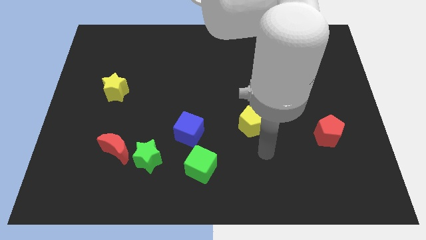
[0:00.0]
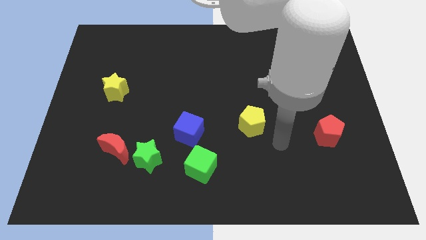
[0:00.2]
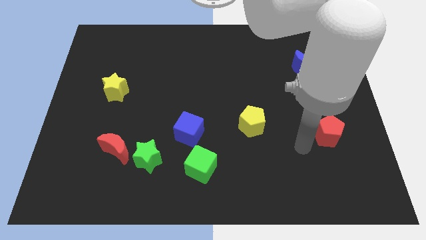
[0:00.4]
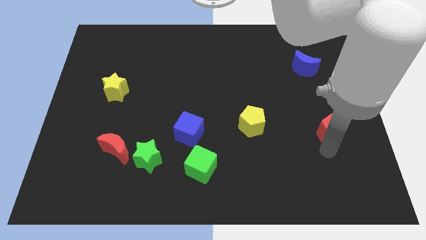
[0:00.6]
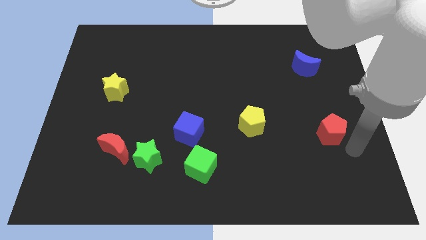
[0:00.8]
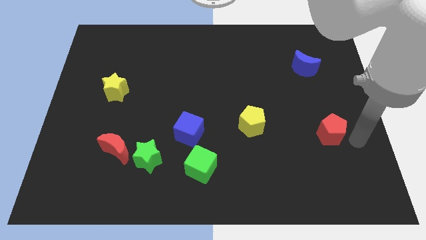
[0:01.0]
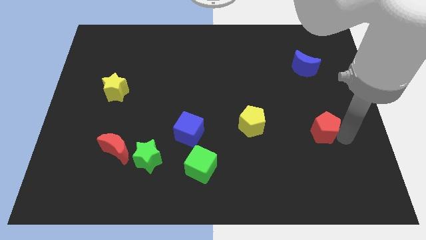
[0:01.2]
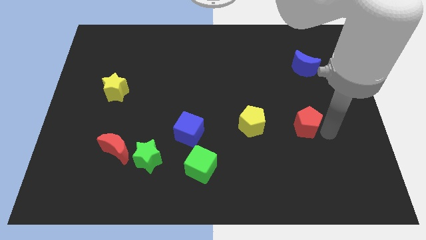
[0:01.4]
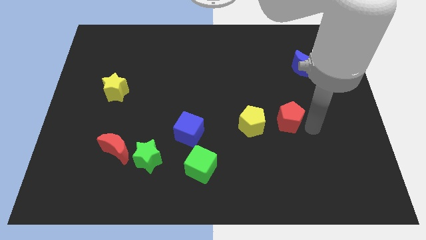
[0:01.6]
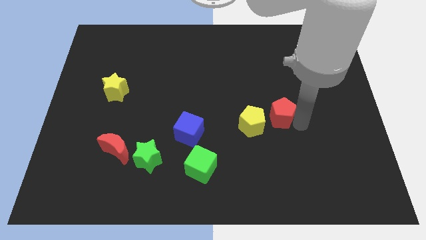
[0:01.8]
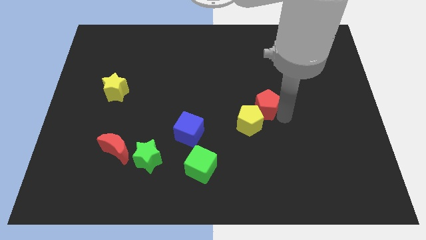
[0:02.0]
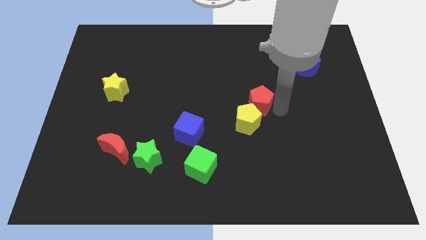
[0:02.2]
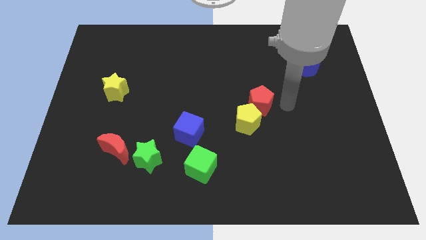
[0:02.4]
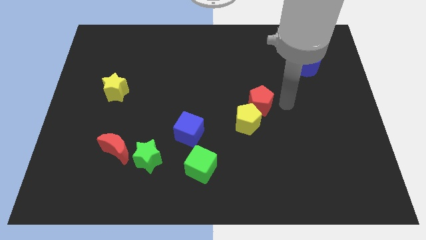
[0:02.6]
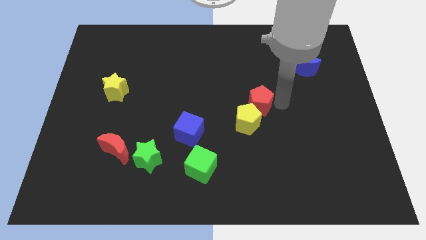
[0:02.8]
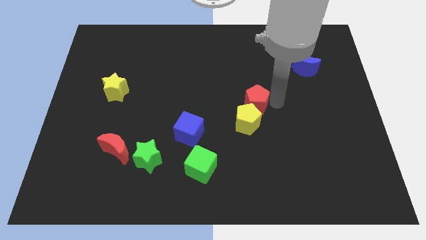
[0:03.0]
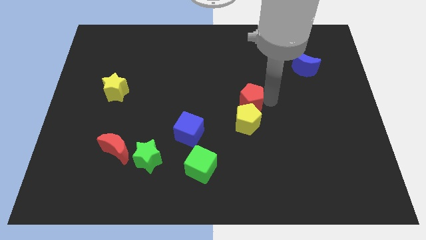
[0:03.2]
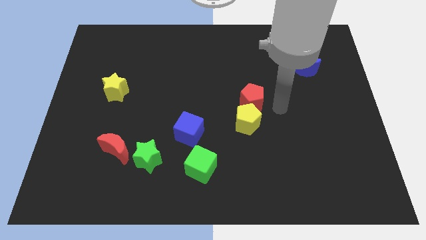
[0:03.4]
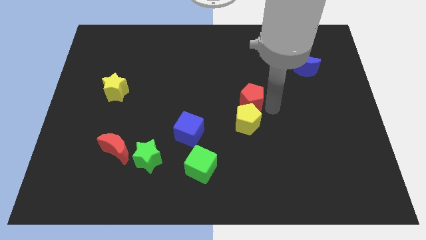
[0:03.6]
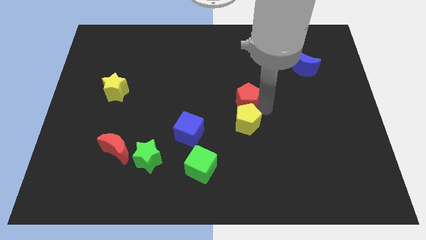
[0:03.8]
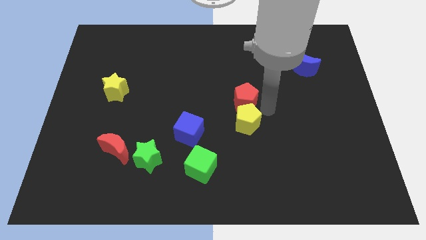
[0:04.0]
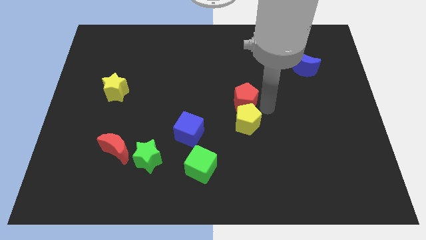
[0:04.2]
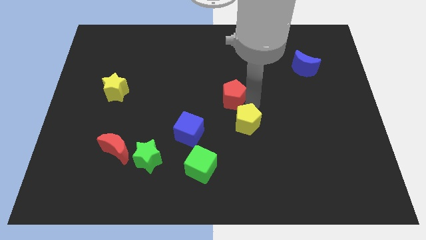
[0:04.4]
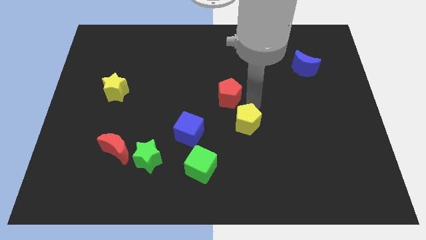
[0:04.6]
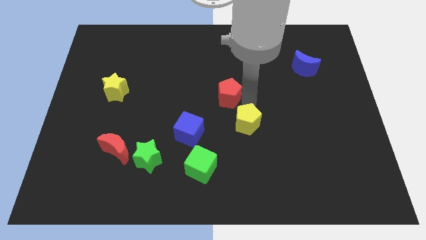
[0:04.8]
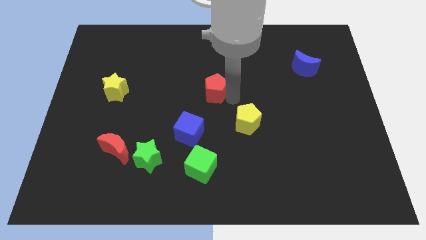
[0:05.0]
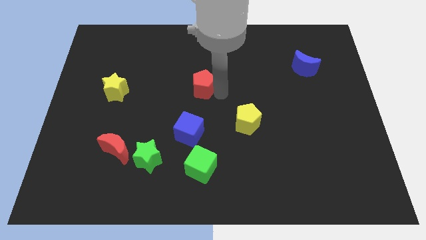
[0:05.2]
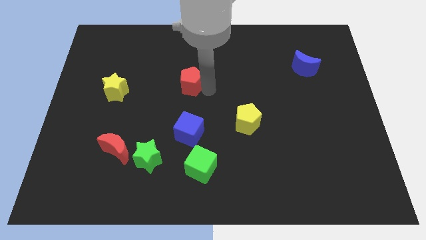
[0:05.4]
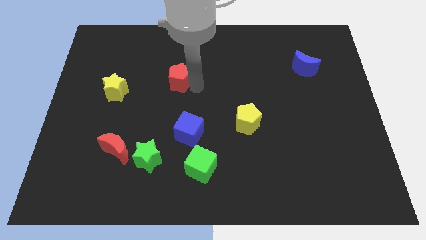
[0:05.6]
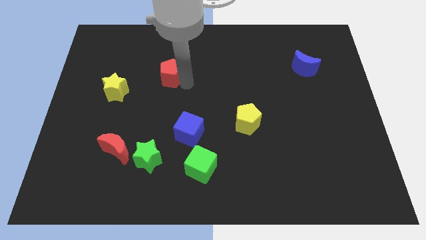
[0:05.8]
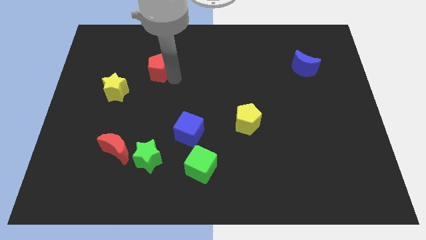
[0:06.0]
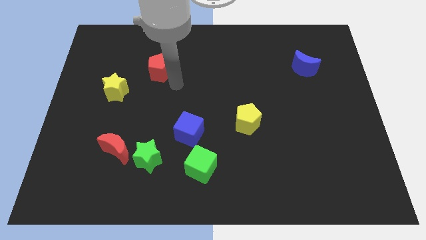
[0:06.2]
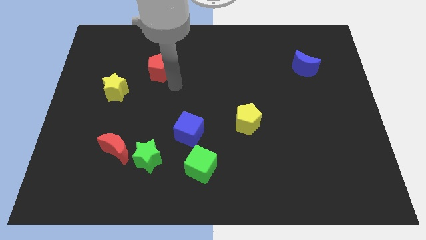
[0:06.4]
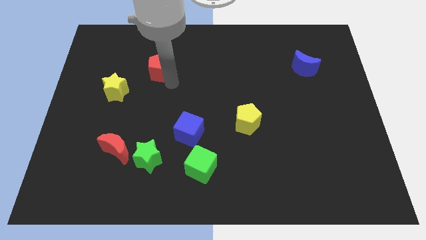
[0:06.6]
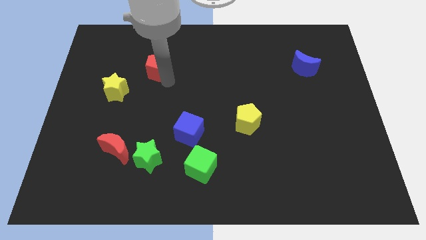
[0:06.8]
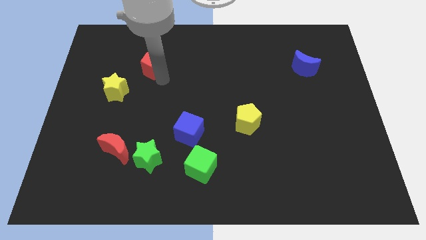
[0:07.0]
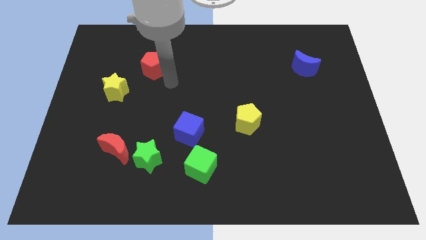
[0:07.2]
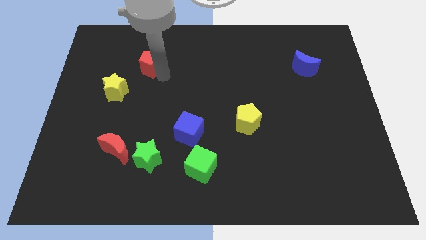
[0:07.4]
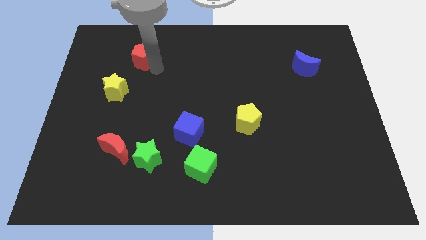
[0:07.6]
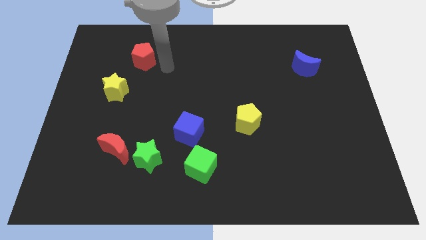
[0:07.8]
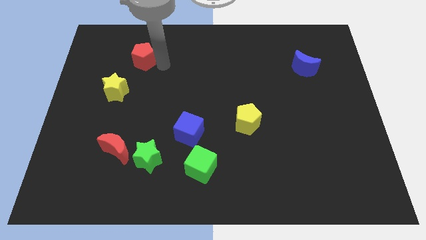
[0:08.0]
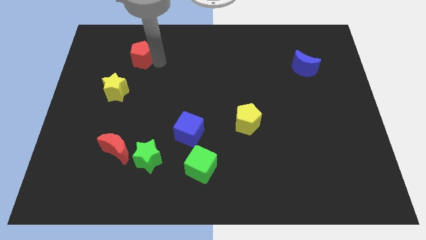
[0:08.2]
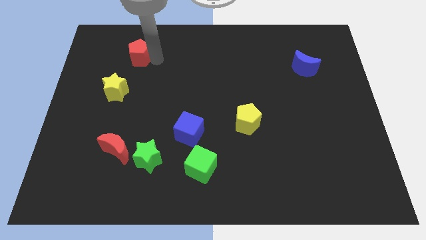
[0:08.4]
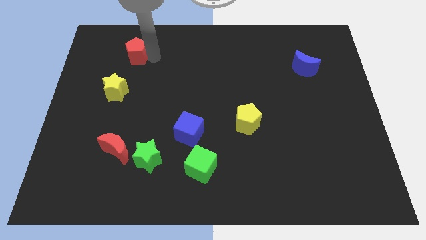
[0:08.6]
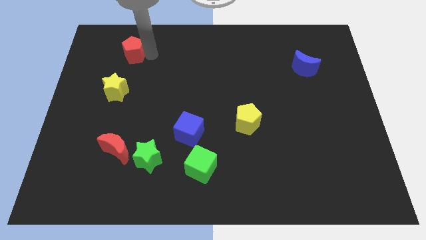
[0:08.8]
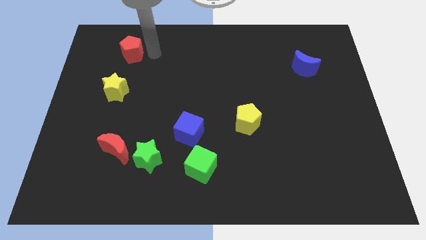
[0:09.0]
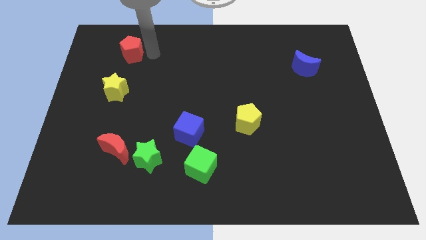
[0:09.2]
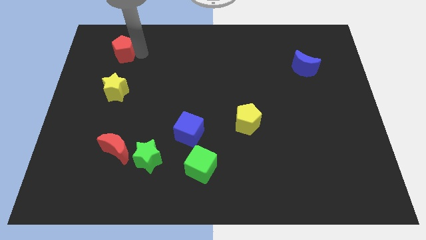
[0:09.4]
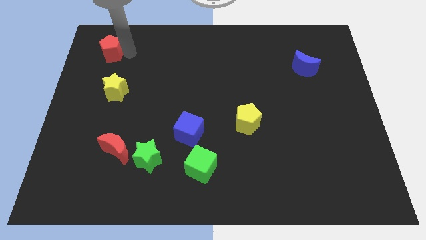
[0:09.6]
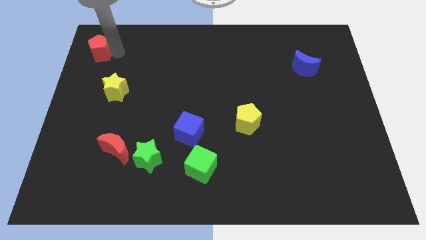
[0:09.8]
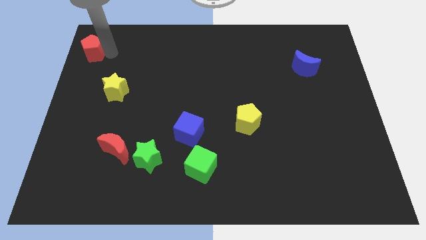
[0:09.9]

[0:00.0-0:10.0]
move the red pentagon to the upper left corner

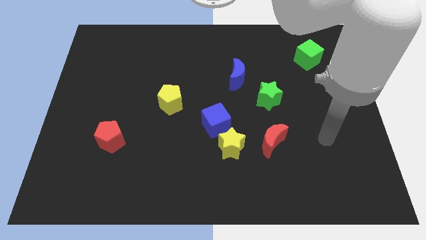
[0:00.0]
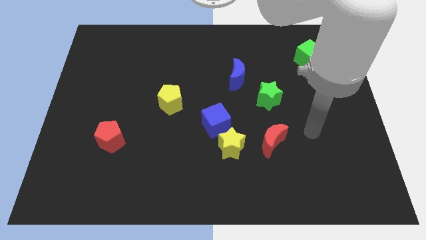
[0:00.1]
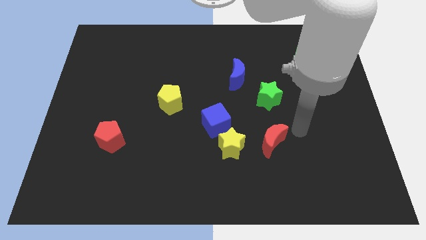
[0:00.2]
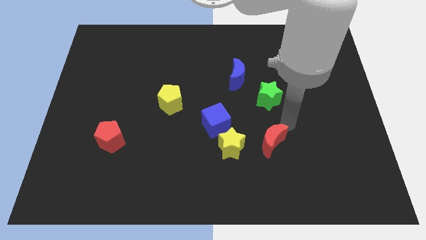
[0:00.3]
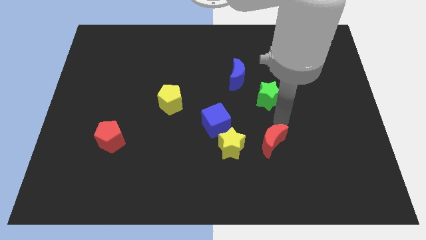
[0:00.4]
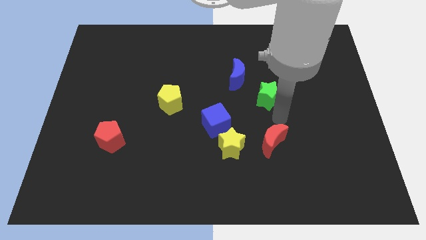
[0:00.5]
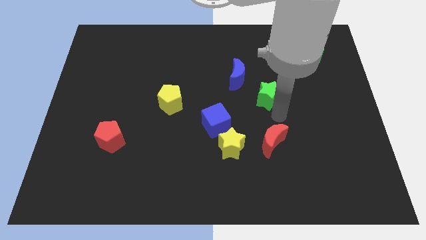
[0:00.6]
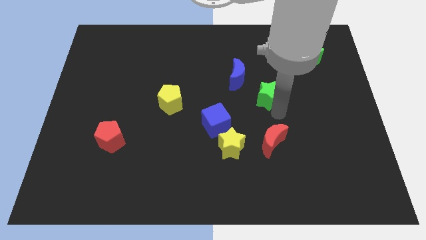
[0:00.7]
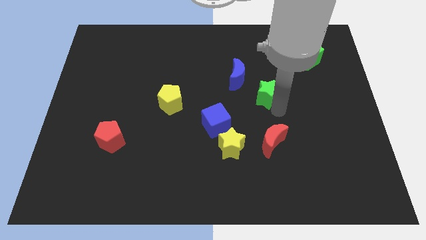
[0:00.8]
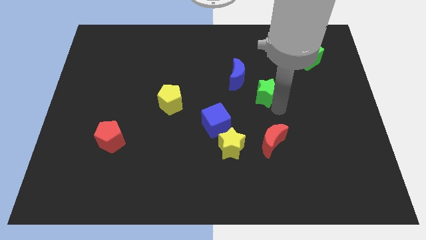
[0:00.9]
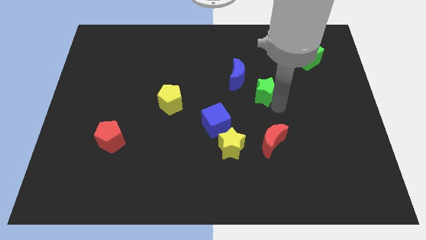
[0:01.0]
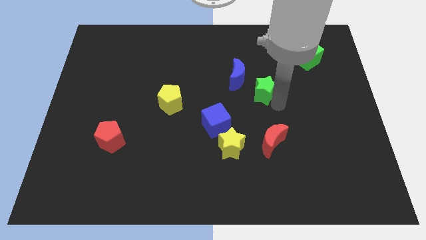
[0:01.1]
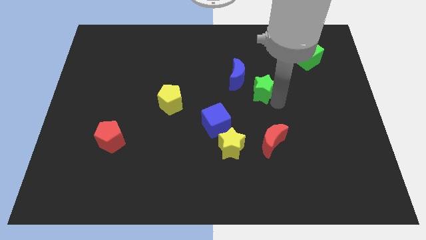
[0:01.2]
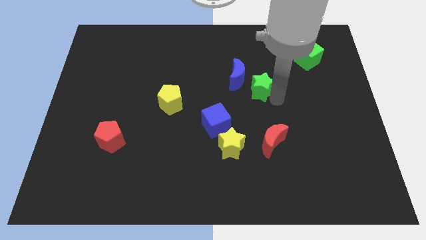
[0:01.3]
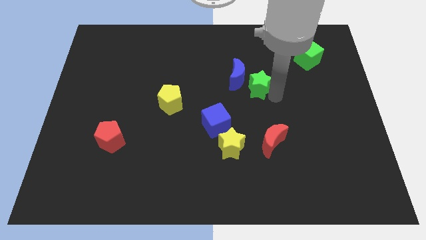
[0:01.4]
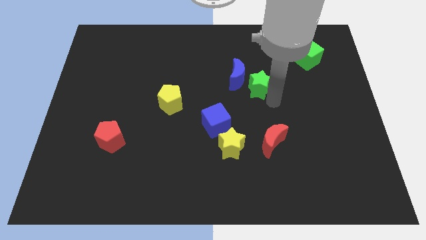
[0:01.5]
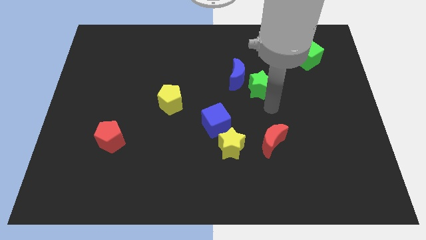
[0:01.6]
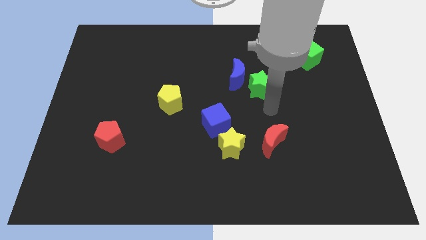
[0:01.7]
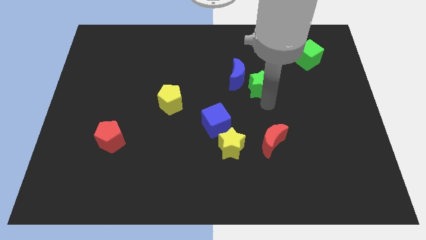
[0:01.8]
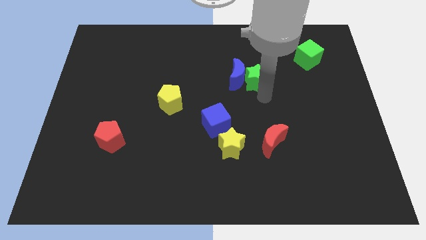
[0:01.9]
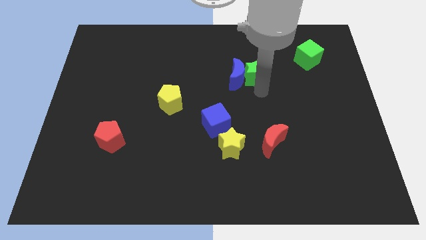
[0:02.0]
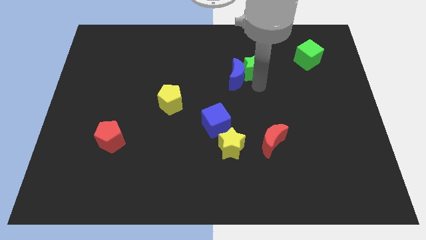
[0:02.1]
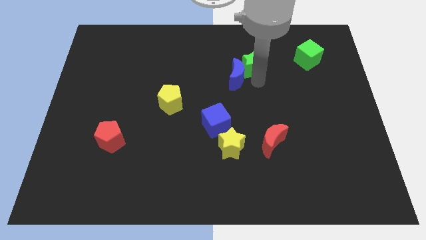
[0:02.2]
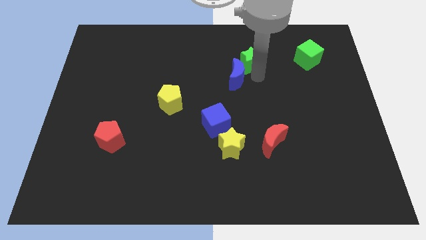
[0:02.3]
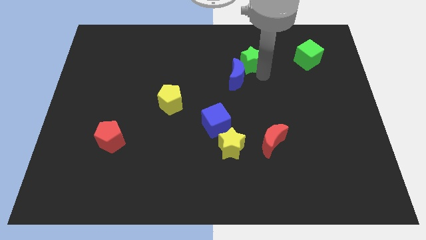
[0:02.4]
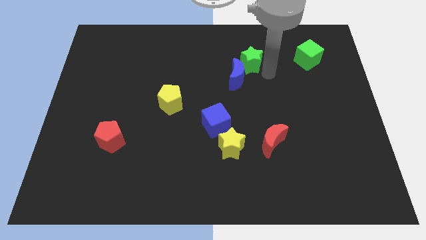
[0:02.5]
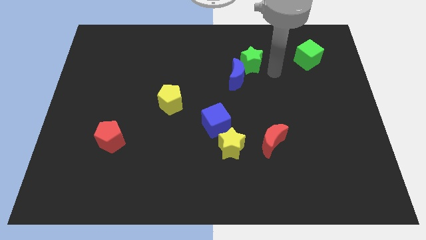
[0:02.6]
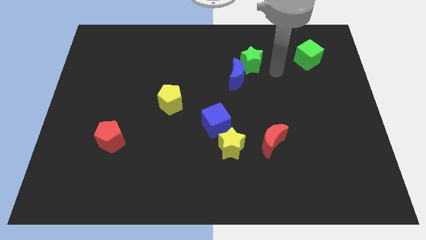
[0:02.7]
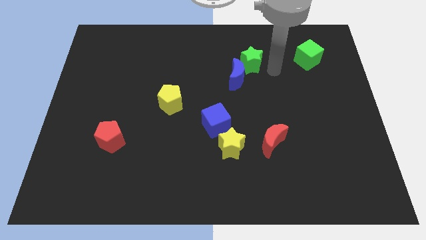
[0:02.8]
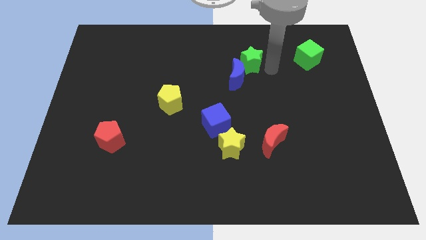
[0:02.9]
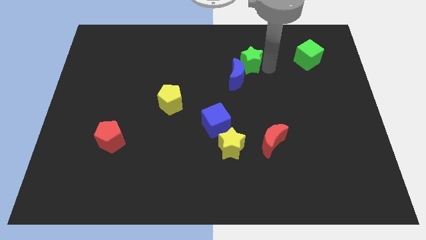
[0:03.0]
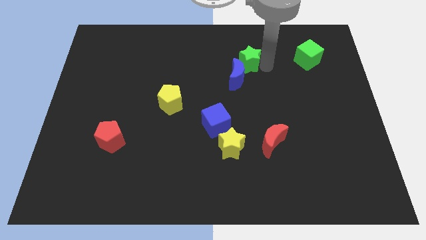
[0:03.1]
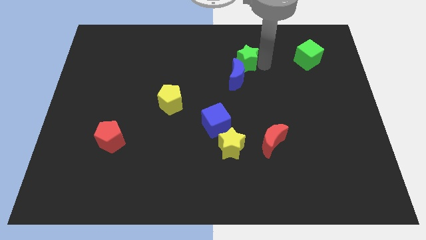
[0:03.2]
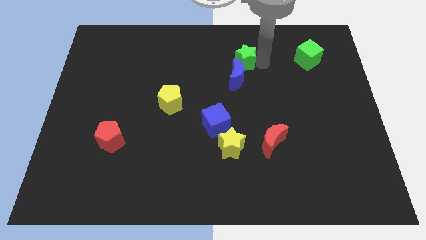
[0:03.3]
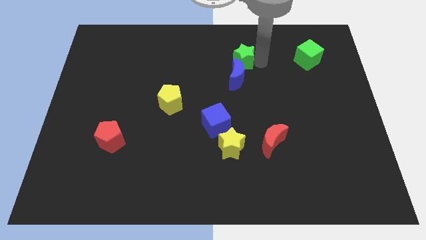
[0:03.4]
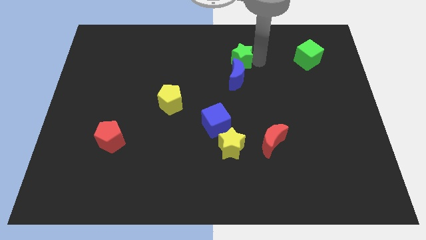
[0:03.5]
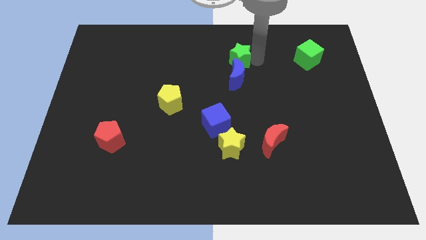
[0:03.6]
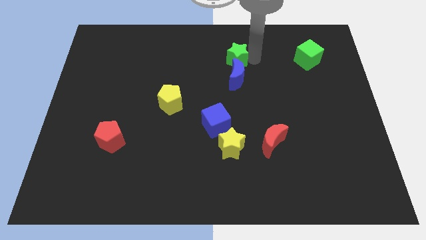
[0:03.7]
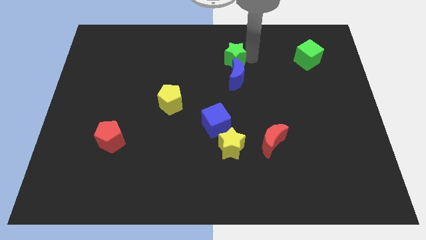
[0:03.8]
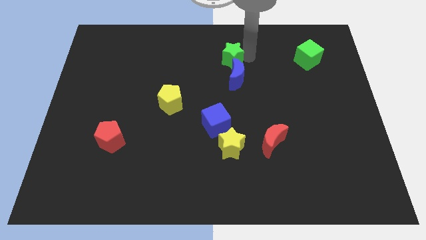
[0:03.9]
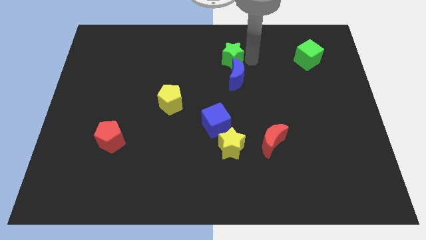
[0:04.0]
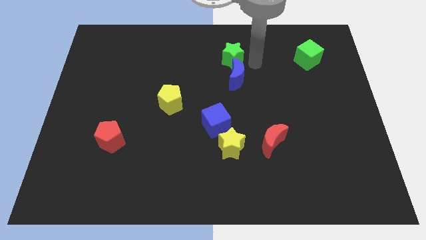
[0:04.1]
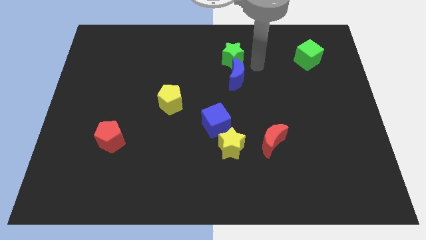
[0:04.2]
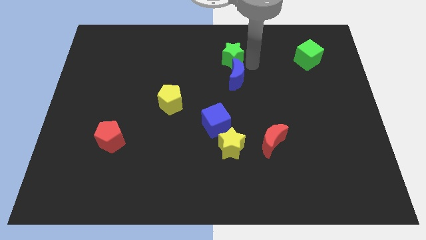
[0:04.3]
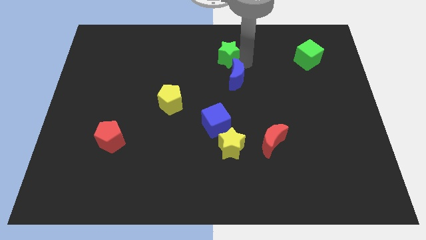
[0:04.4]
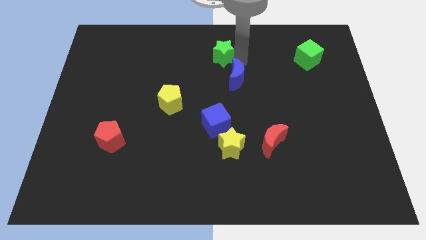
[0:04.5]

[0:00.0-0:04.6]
move the green star to the towards your base
